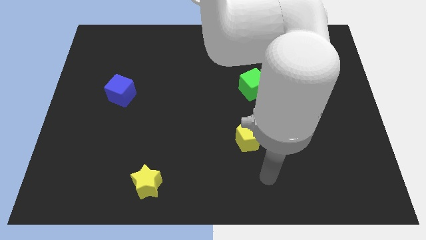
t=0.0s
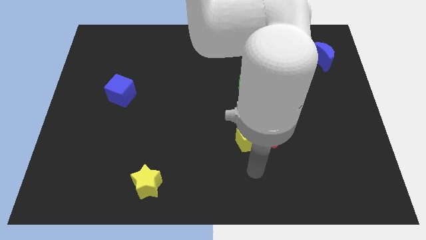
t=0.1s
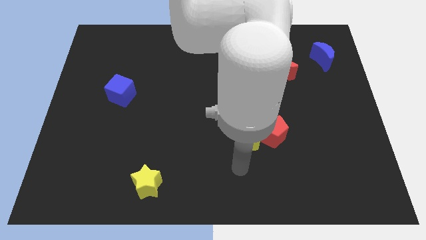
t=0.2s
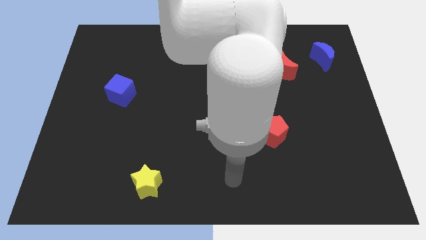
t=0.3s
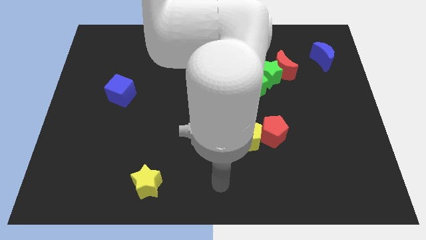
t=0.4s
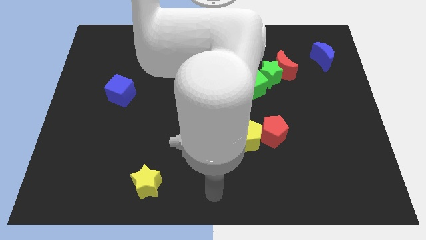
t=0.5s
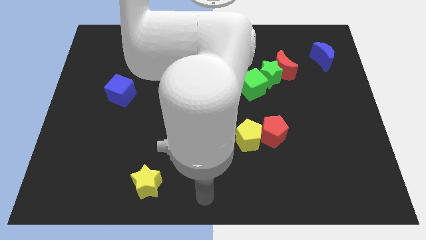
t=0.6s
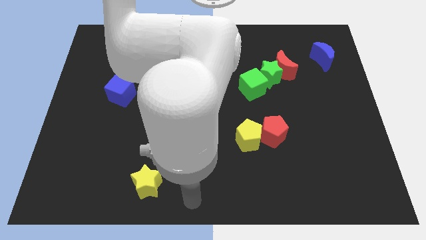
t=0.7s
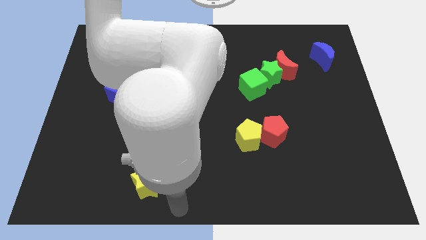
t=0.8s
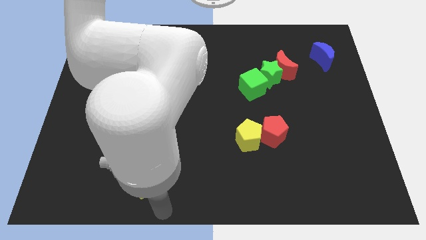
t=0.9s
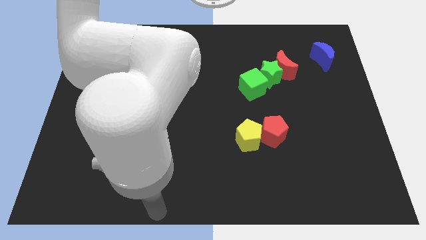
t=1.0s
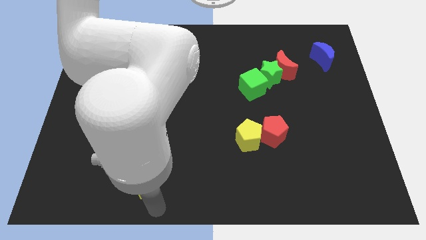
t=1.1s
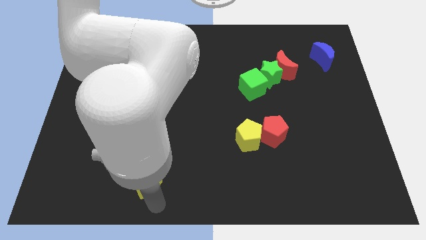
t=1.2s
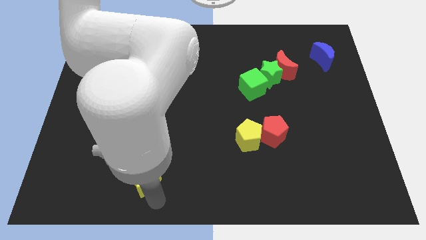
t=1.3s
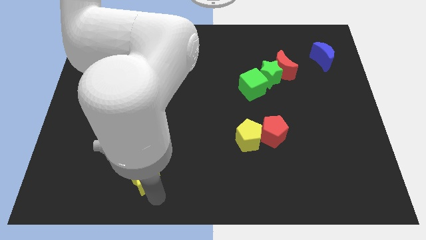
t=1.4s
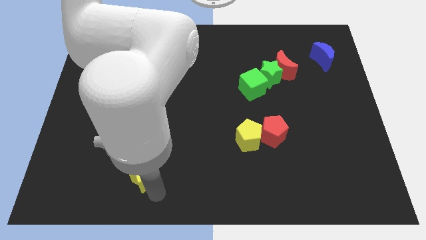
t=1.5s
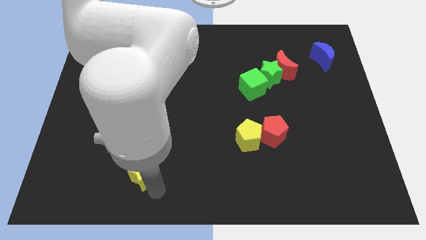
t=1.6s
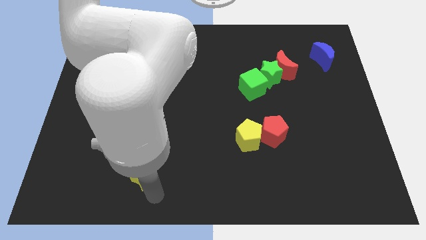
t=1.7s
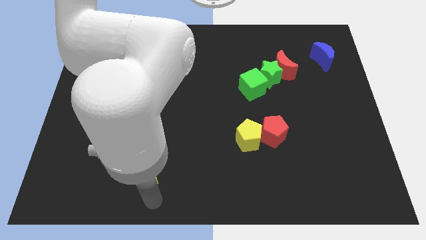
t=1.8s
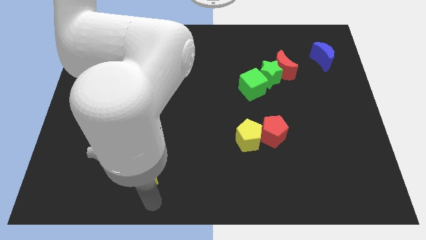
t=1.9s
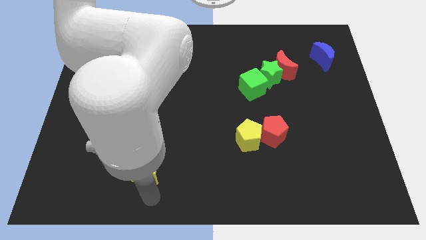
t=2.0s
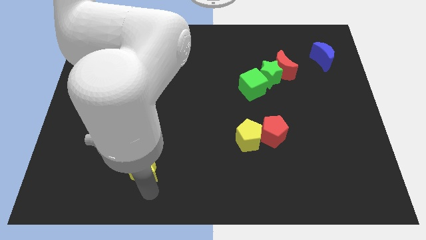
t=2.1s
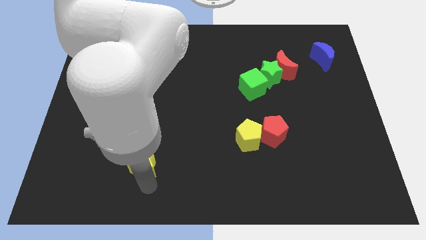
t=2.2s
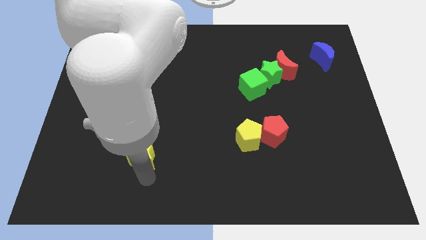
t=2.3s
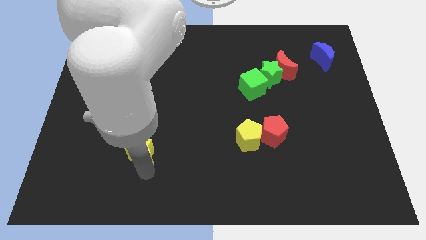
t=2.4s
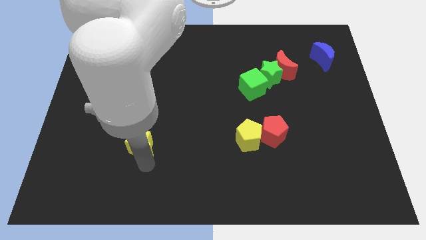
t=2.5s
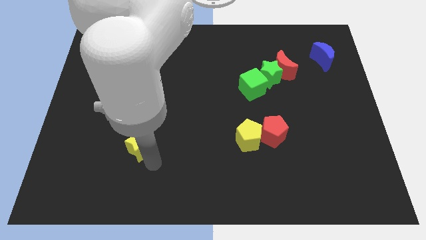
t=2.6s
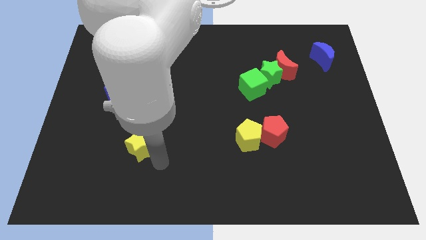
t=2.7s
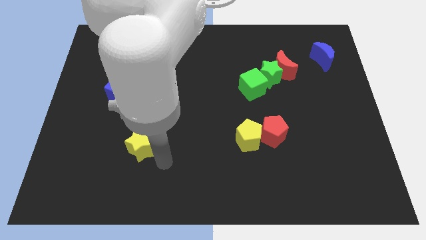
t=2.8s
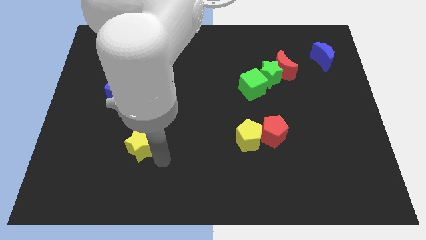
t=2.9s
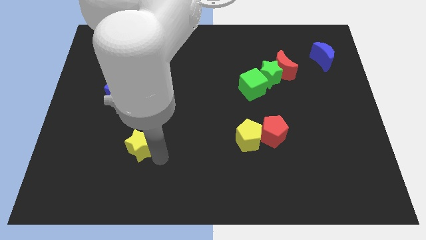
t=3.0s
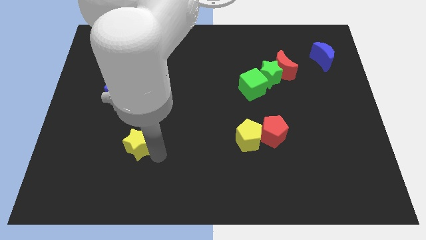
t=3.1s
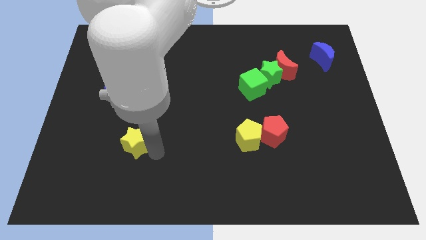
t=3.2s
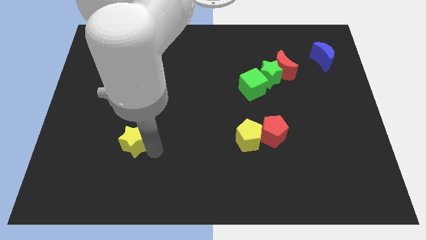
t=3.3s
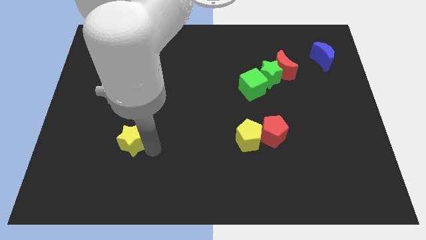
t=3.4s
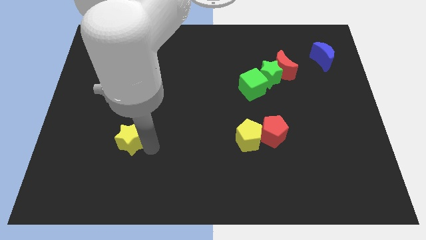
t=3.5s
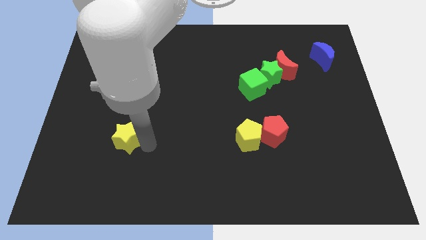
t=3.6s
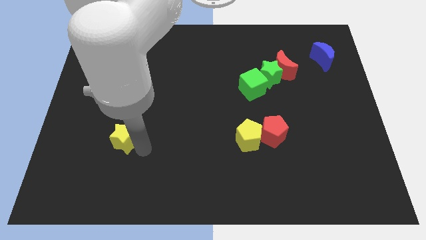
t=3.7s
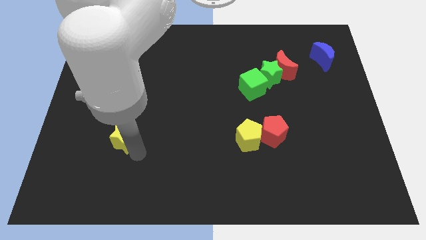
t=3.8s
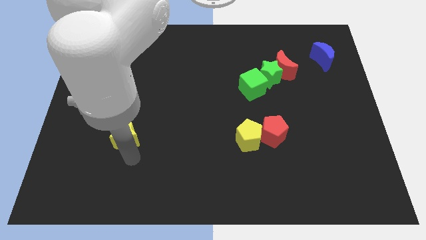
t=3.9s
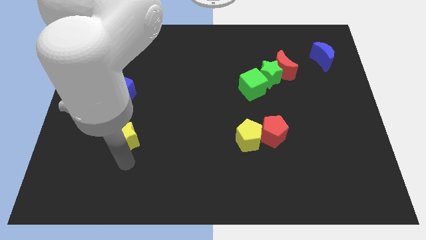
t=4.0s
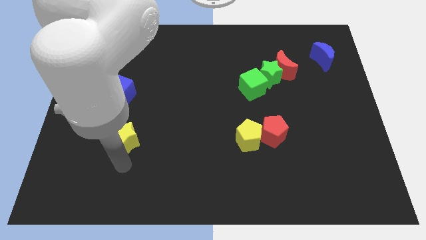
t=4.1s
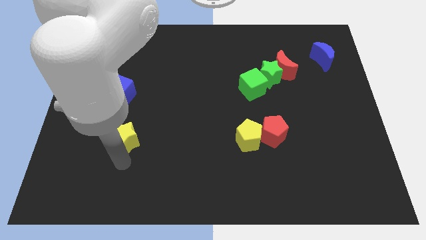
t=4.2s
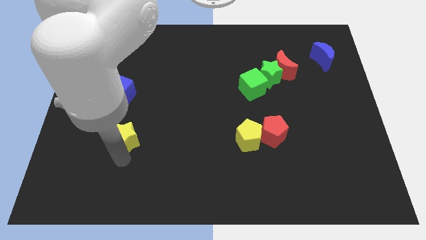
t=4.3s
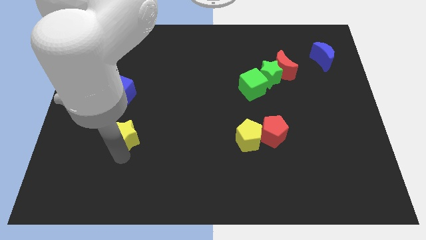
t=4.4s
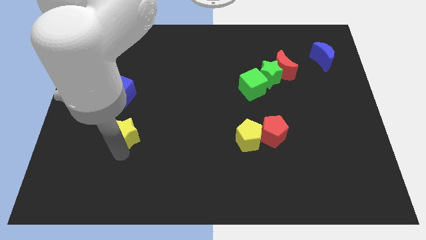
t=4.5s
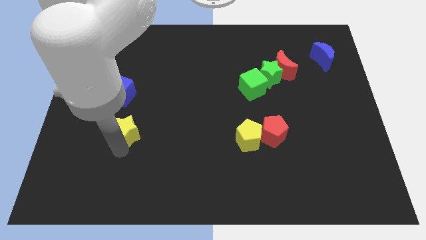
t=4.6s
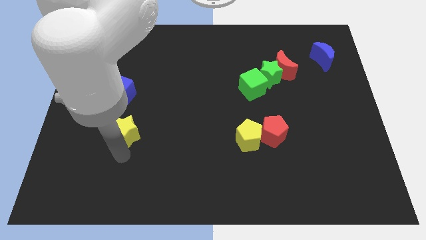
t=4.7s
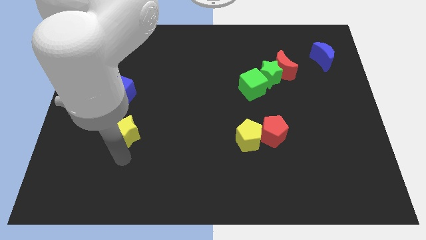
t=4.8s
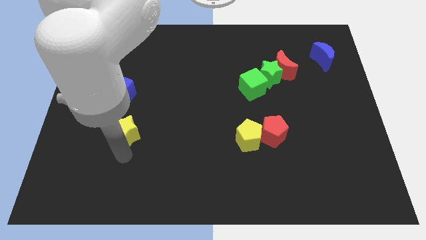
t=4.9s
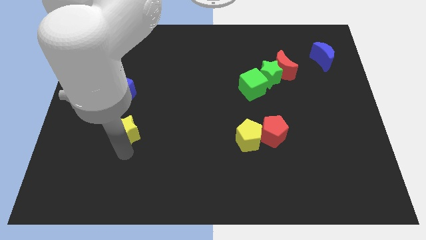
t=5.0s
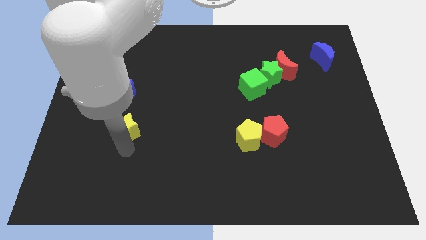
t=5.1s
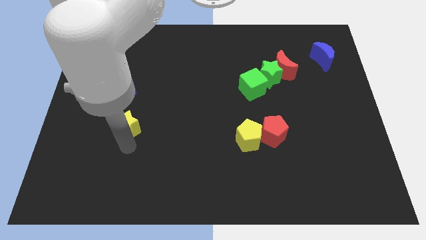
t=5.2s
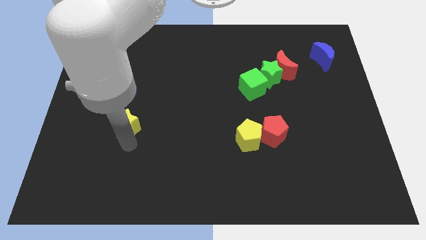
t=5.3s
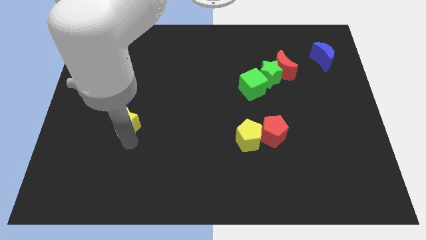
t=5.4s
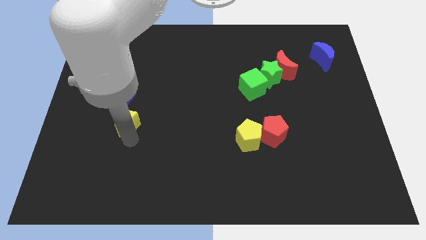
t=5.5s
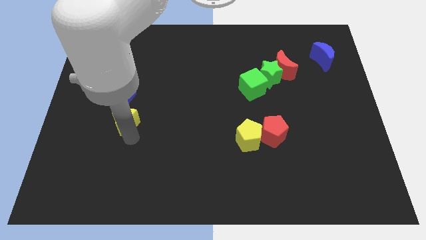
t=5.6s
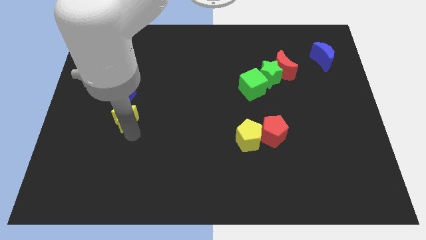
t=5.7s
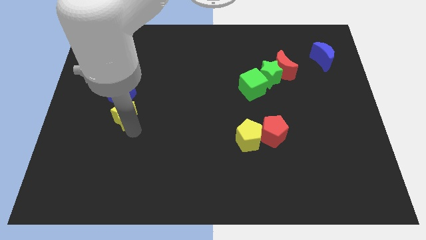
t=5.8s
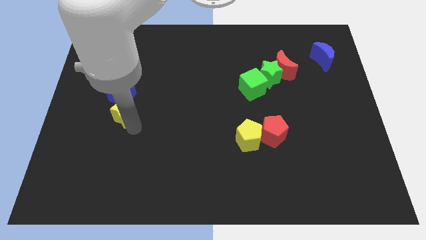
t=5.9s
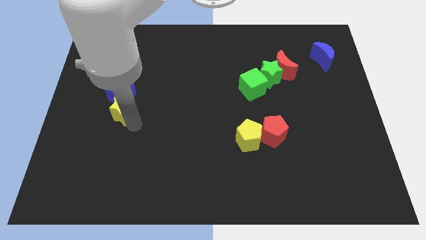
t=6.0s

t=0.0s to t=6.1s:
move the yellow star close to the blue cube

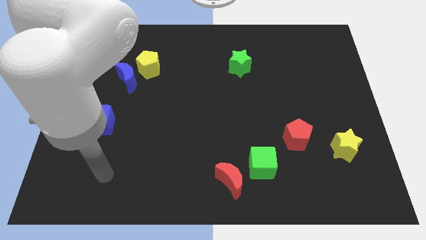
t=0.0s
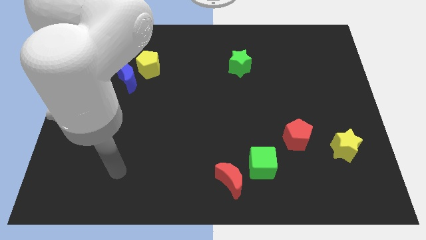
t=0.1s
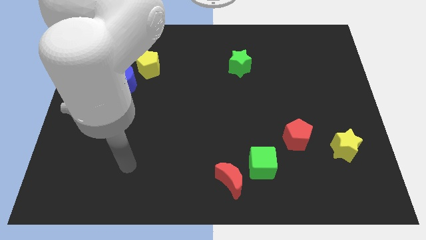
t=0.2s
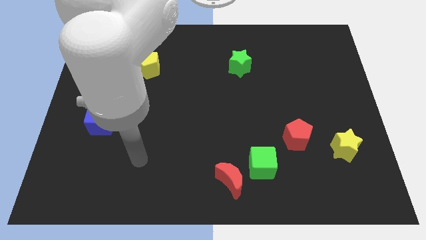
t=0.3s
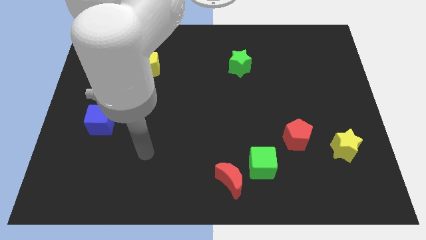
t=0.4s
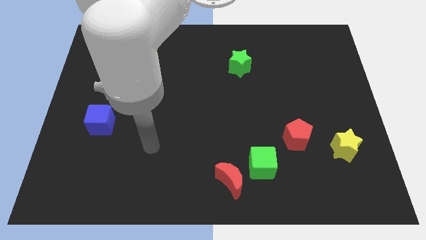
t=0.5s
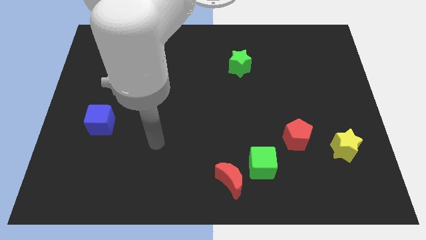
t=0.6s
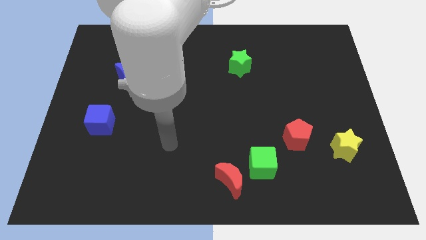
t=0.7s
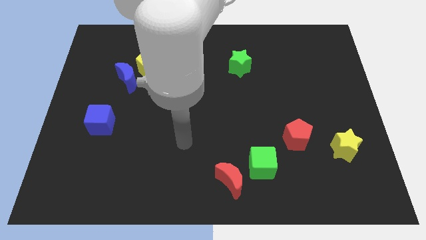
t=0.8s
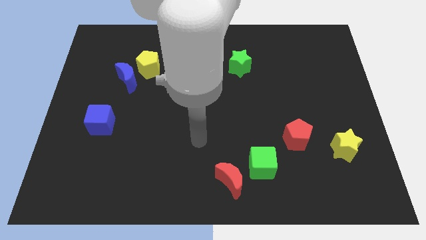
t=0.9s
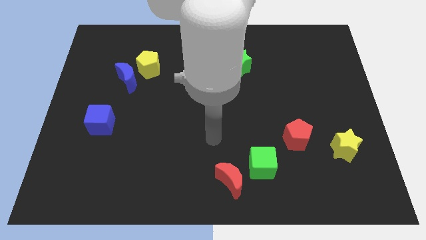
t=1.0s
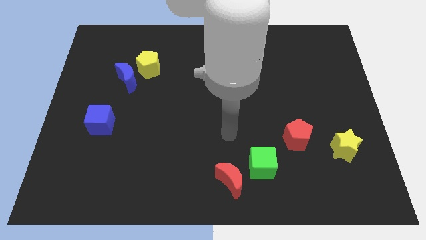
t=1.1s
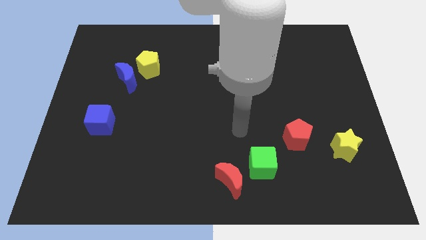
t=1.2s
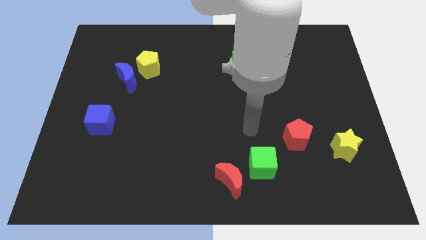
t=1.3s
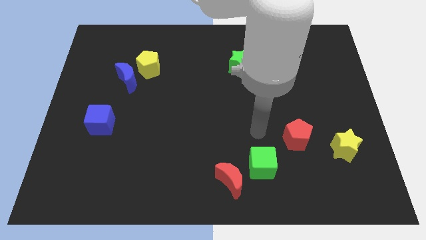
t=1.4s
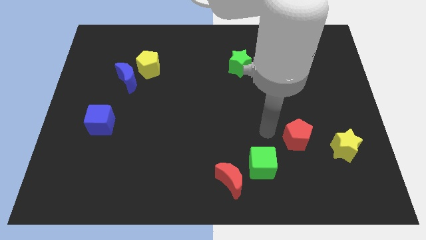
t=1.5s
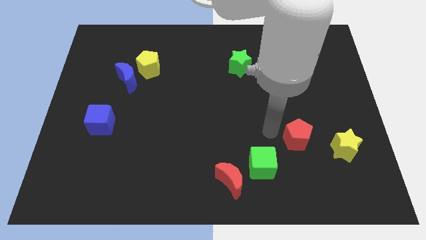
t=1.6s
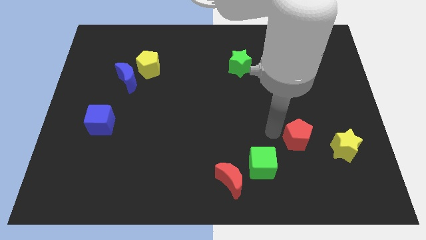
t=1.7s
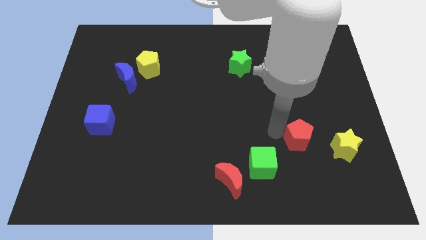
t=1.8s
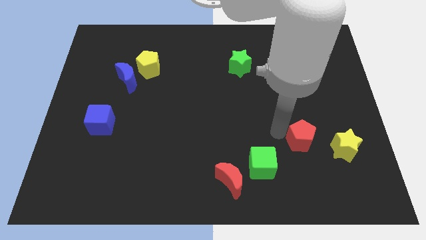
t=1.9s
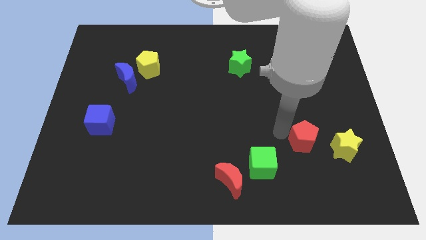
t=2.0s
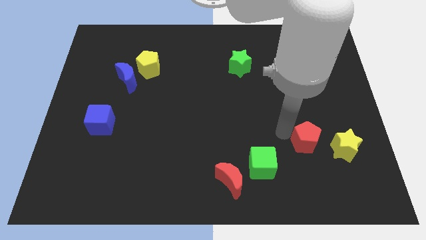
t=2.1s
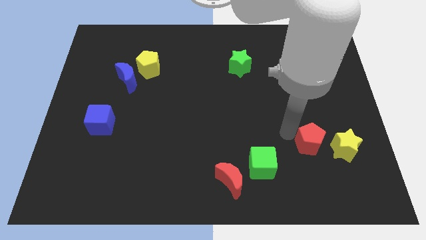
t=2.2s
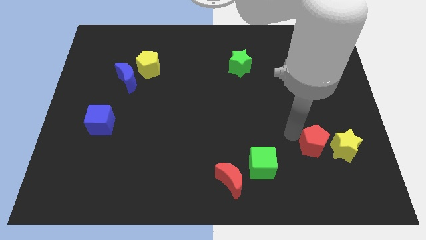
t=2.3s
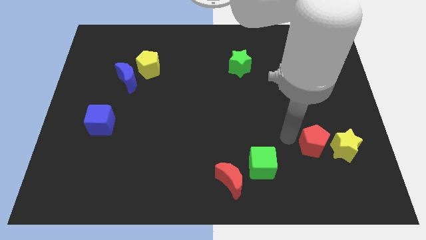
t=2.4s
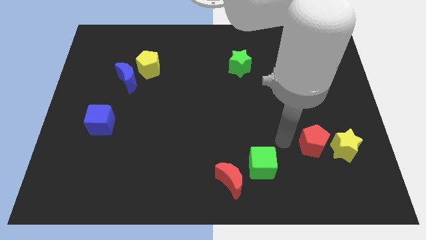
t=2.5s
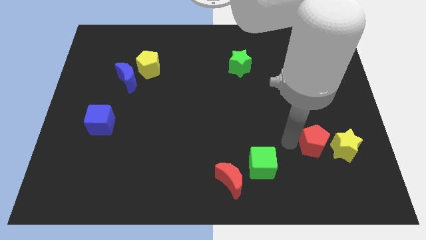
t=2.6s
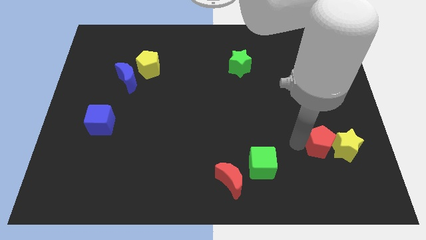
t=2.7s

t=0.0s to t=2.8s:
put the red pentagon close to the yellow star
